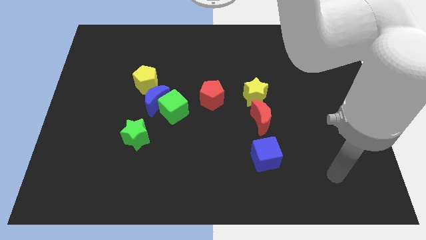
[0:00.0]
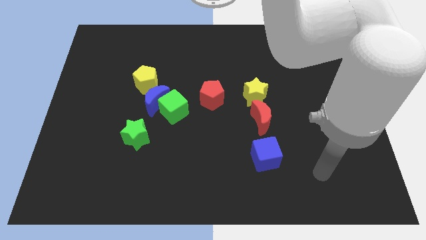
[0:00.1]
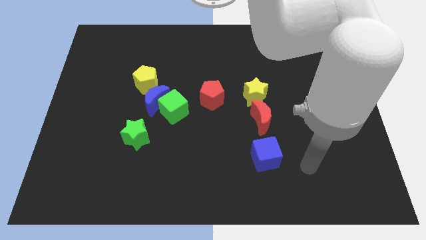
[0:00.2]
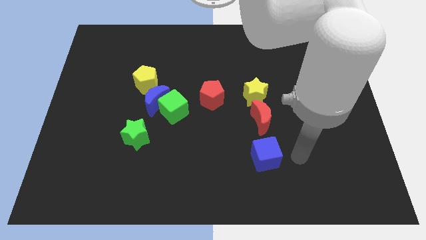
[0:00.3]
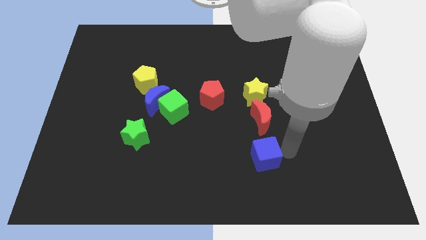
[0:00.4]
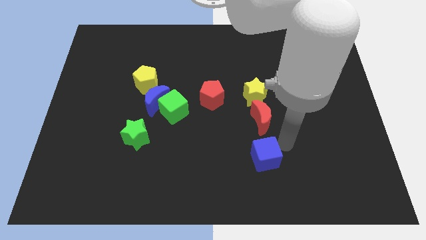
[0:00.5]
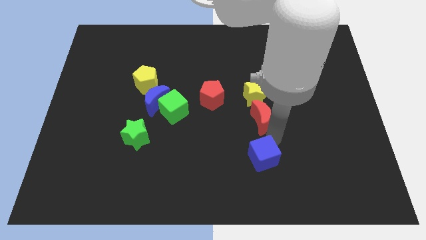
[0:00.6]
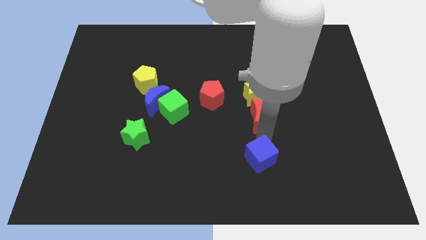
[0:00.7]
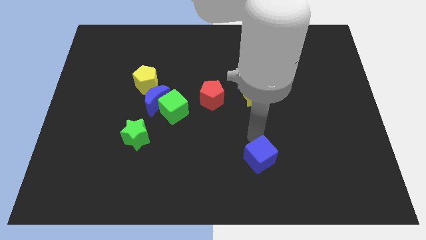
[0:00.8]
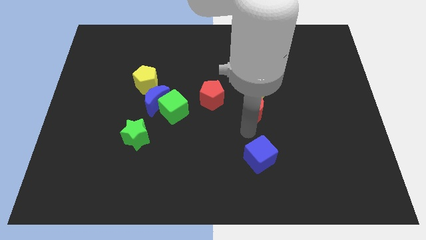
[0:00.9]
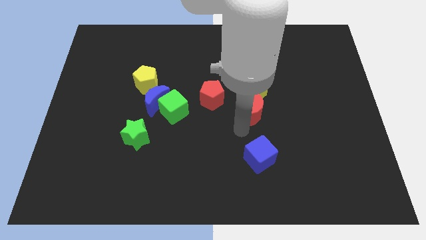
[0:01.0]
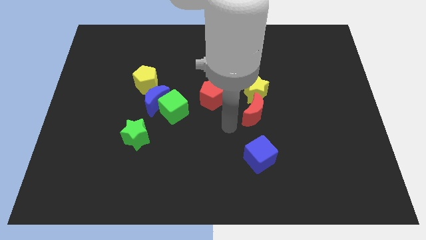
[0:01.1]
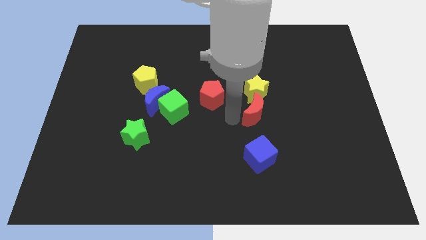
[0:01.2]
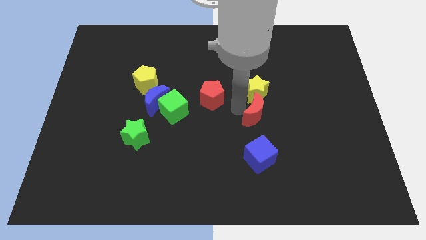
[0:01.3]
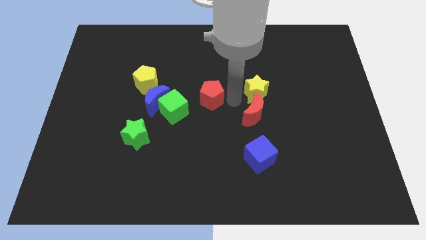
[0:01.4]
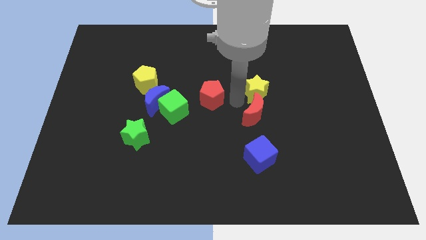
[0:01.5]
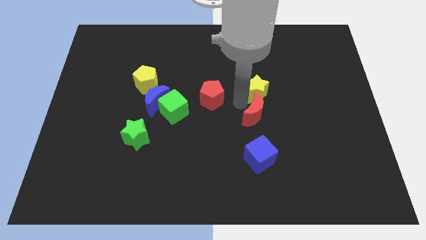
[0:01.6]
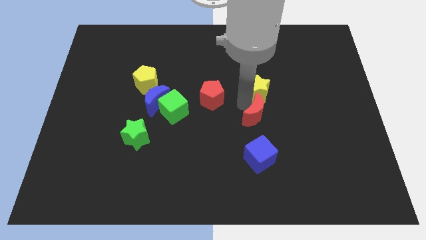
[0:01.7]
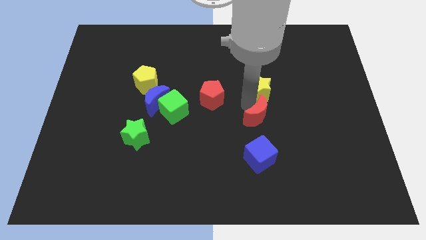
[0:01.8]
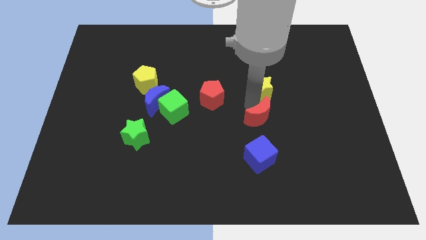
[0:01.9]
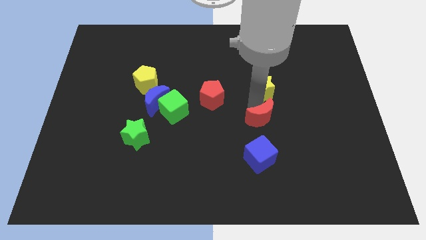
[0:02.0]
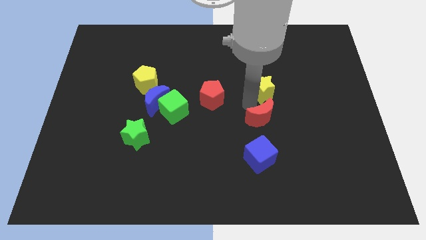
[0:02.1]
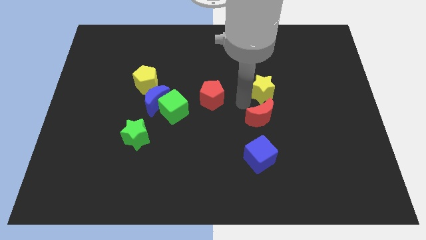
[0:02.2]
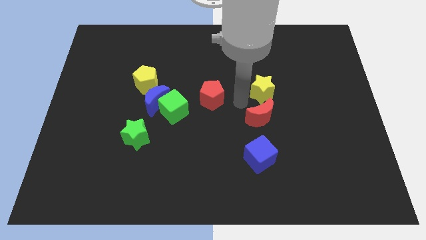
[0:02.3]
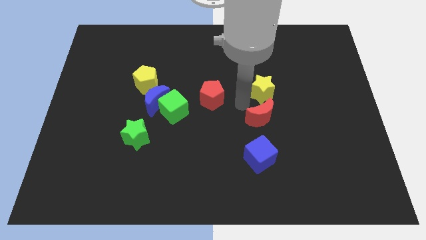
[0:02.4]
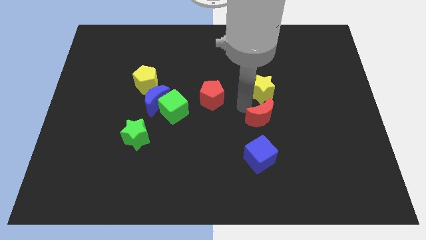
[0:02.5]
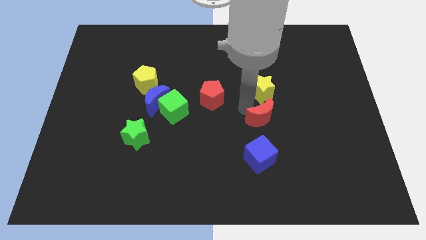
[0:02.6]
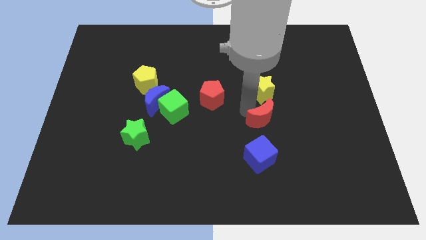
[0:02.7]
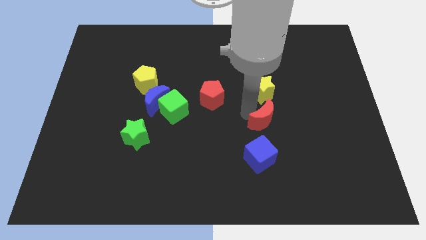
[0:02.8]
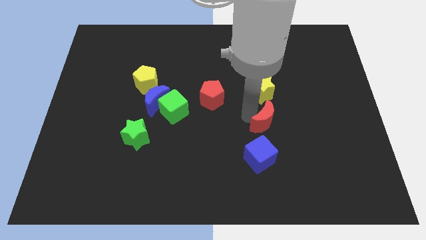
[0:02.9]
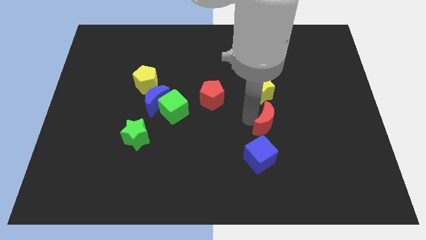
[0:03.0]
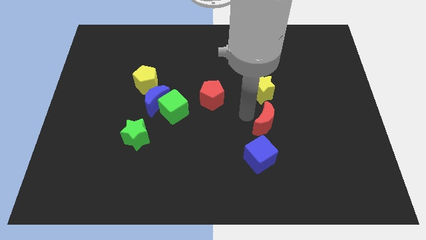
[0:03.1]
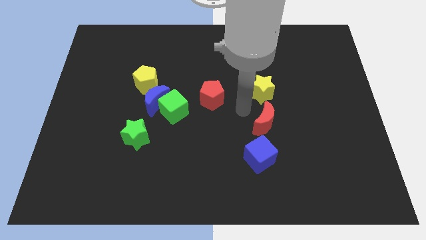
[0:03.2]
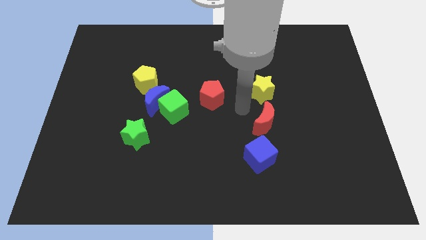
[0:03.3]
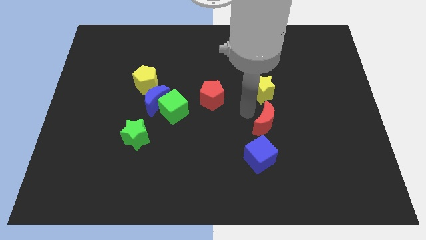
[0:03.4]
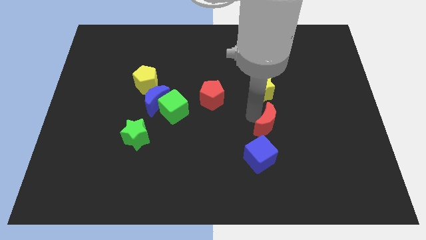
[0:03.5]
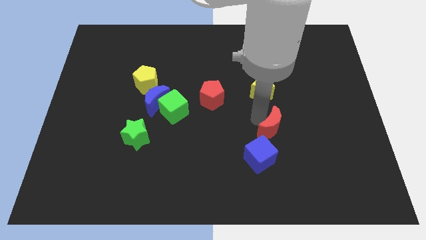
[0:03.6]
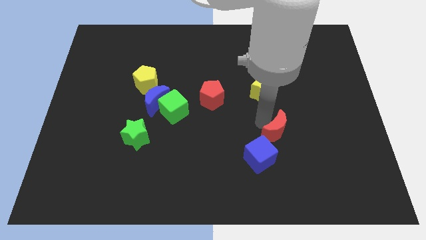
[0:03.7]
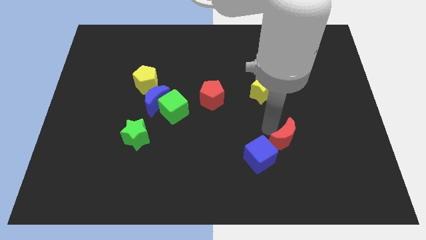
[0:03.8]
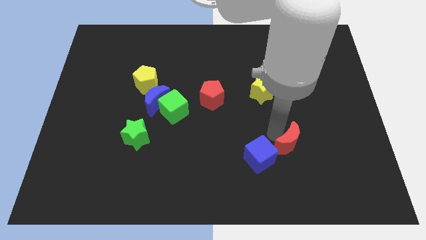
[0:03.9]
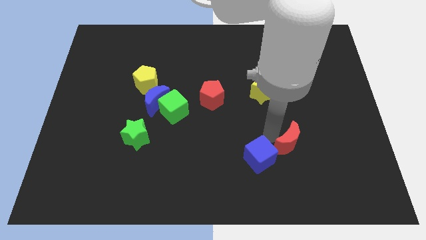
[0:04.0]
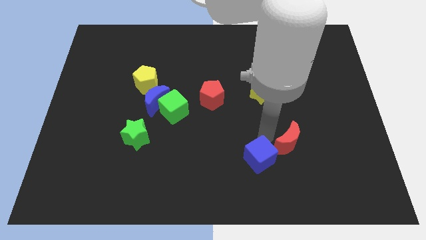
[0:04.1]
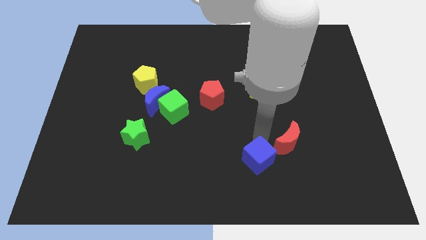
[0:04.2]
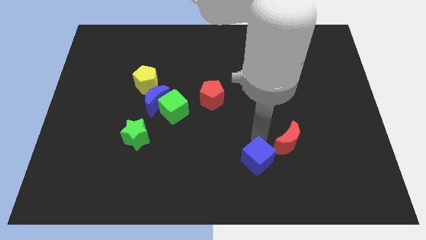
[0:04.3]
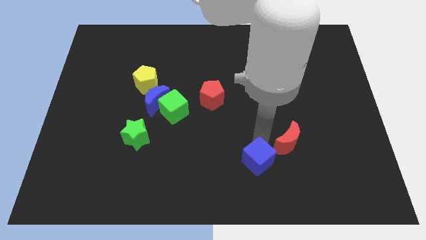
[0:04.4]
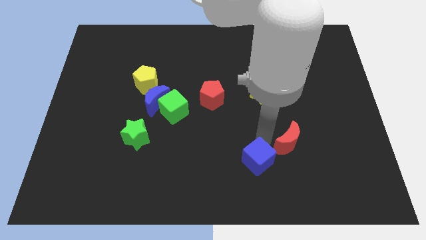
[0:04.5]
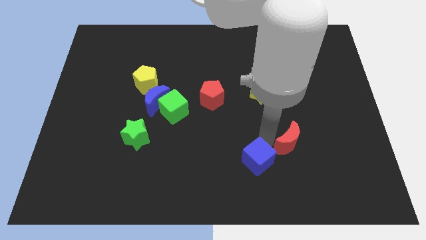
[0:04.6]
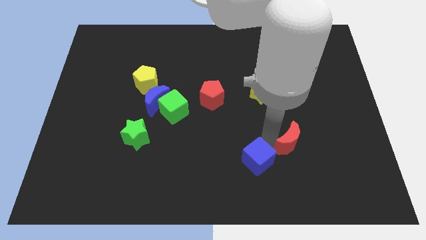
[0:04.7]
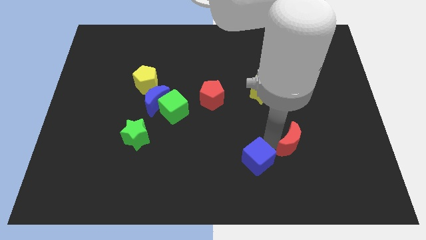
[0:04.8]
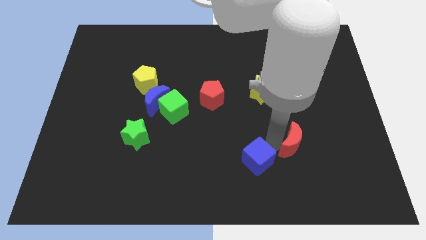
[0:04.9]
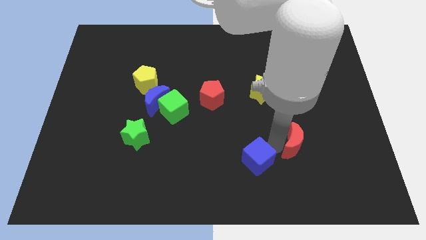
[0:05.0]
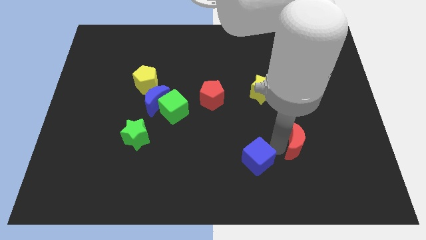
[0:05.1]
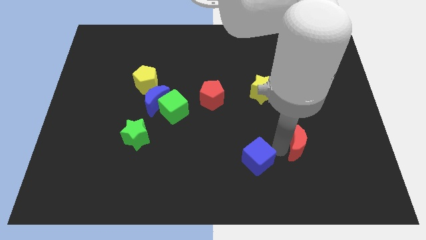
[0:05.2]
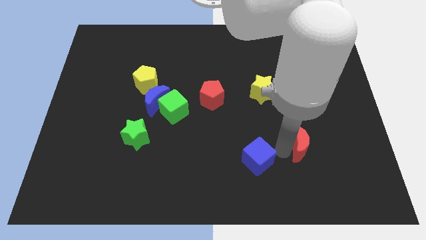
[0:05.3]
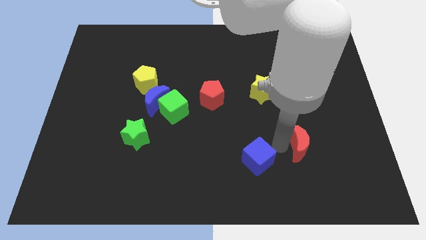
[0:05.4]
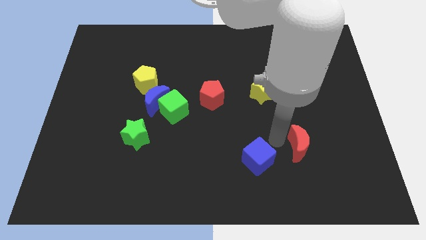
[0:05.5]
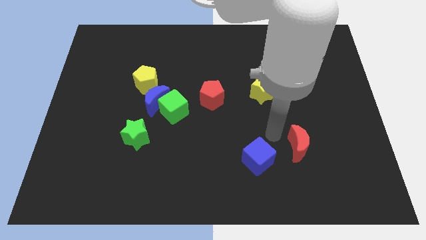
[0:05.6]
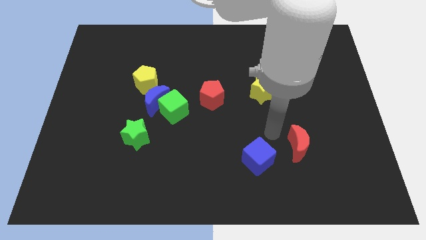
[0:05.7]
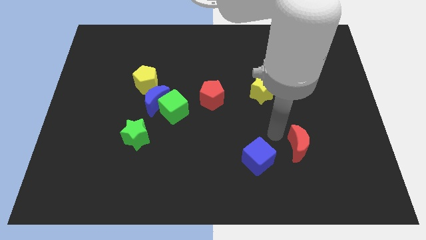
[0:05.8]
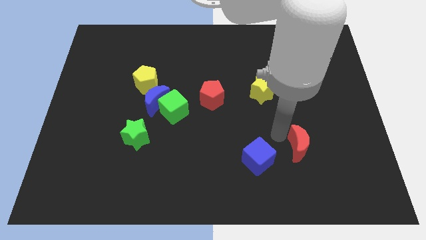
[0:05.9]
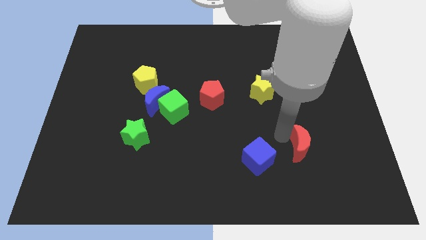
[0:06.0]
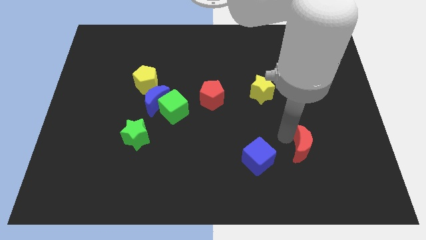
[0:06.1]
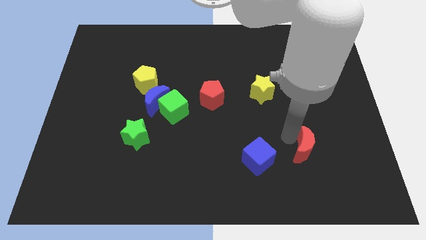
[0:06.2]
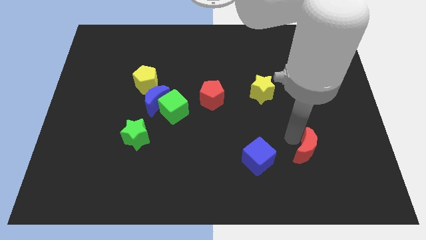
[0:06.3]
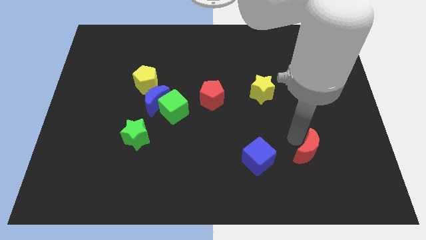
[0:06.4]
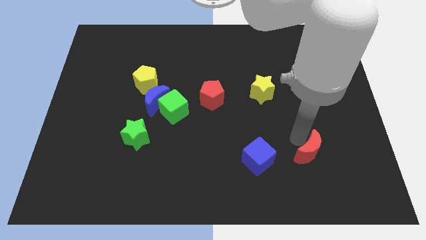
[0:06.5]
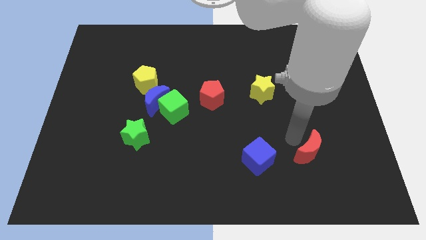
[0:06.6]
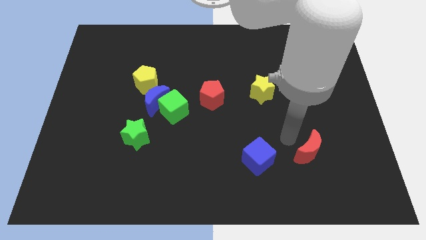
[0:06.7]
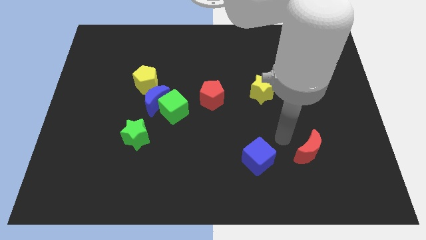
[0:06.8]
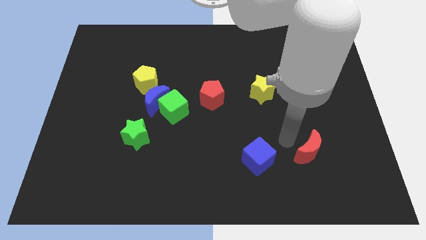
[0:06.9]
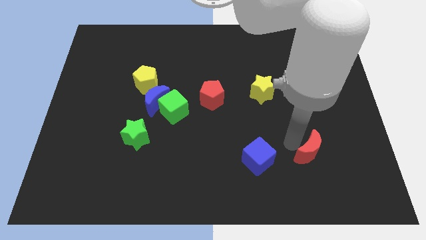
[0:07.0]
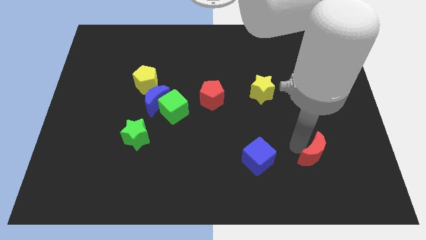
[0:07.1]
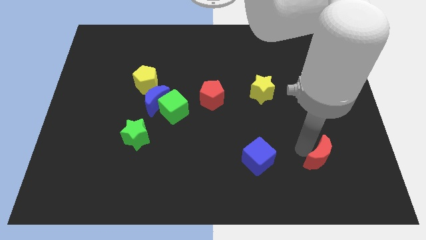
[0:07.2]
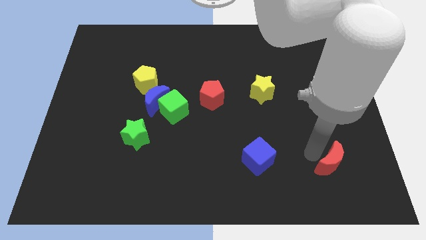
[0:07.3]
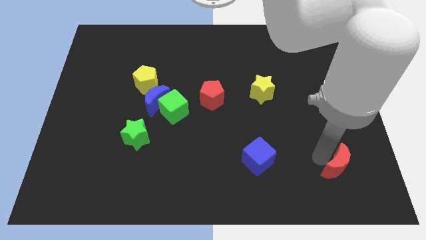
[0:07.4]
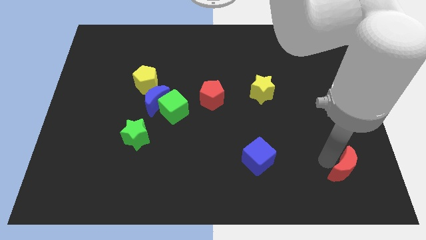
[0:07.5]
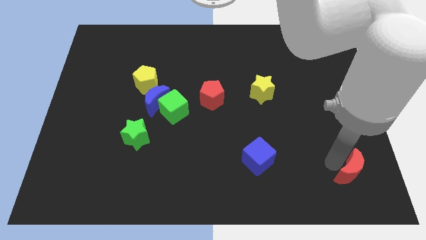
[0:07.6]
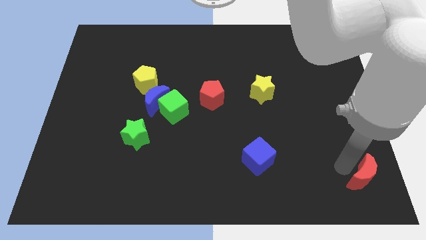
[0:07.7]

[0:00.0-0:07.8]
move the red moon to the lower right corner
